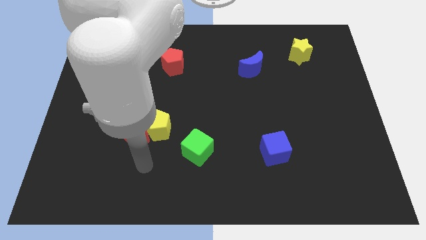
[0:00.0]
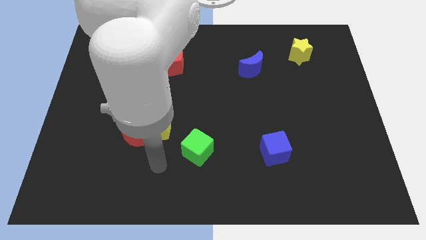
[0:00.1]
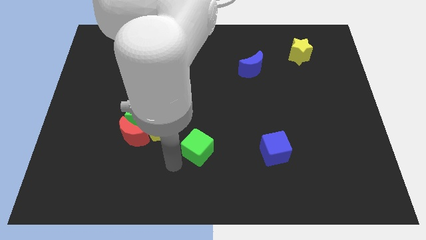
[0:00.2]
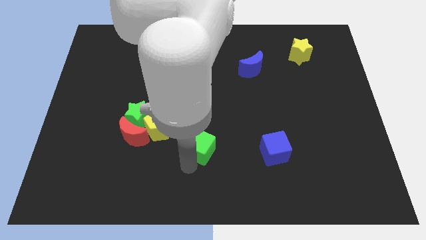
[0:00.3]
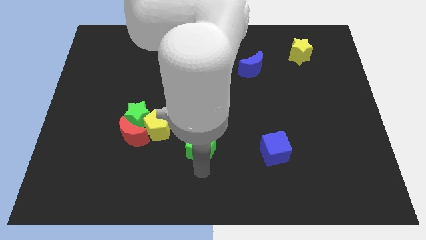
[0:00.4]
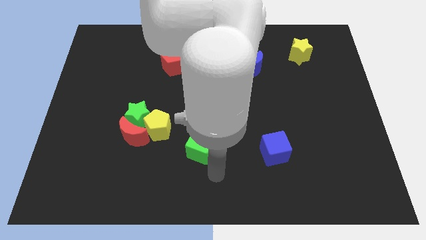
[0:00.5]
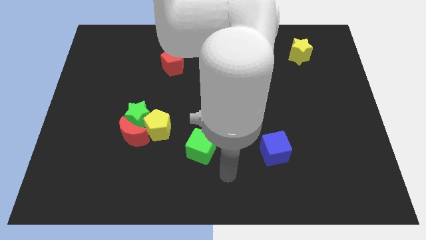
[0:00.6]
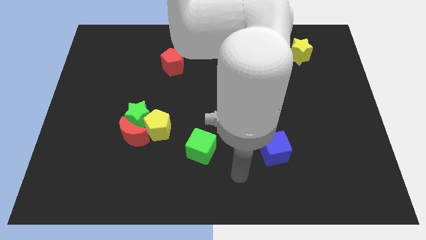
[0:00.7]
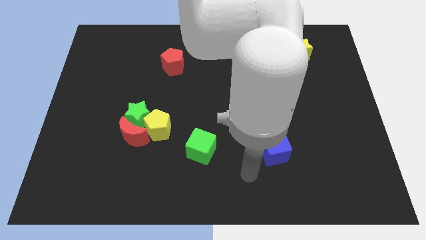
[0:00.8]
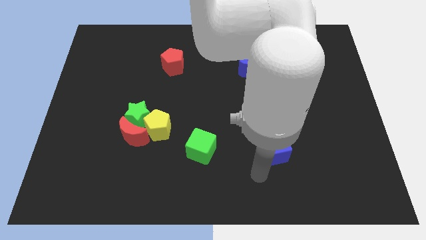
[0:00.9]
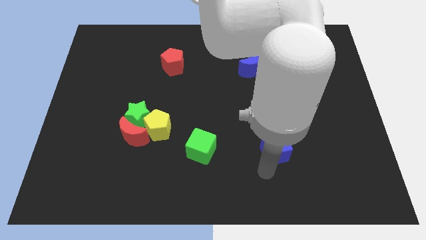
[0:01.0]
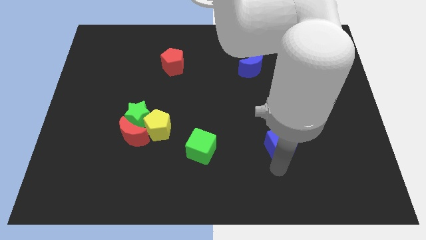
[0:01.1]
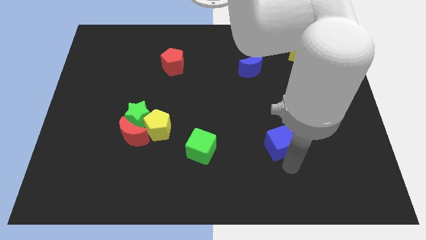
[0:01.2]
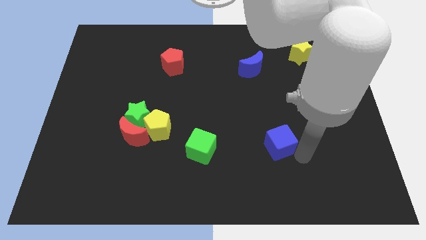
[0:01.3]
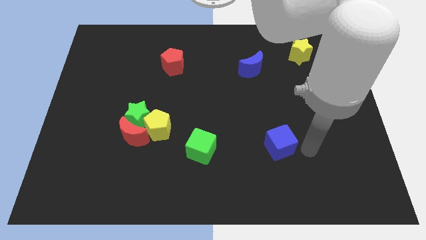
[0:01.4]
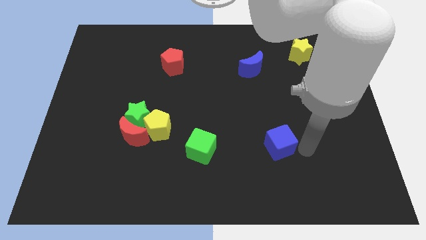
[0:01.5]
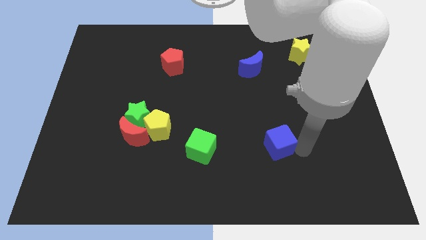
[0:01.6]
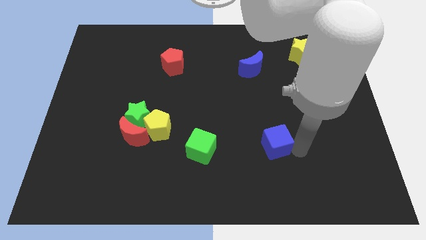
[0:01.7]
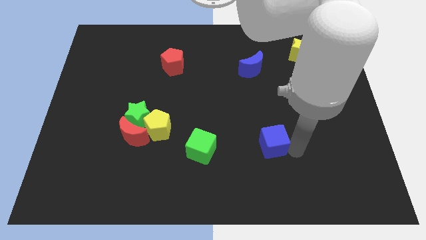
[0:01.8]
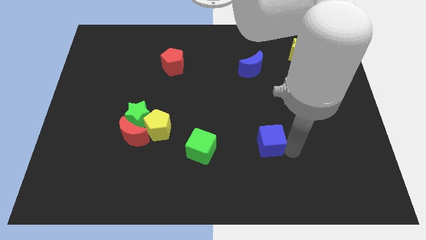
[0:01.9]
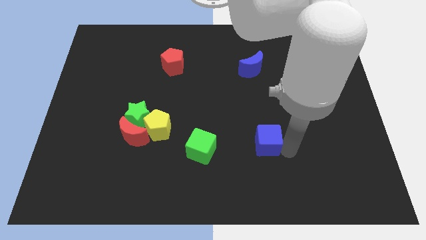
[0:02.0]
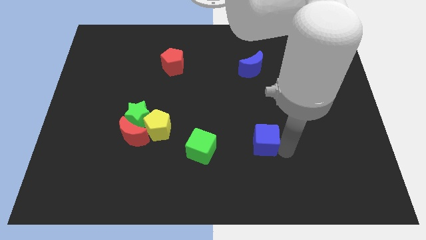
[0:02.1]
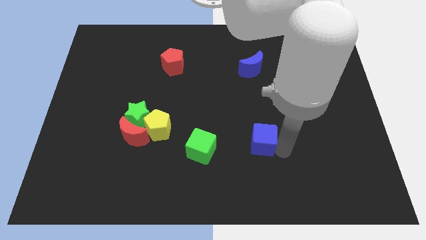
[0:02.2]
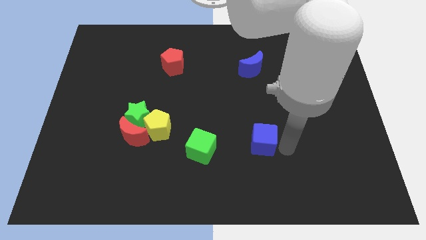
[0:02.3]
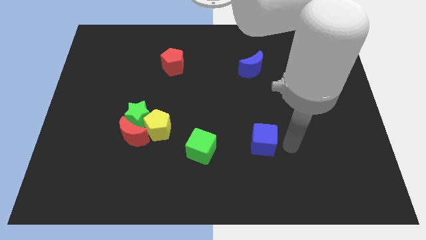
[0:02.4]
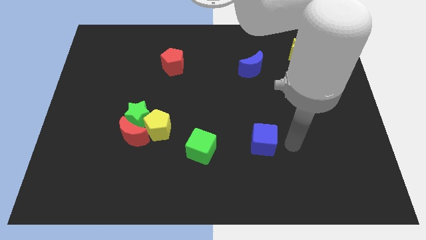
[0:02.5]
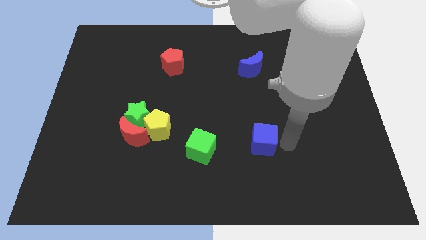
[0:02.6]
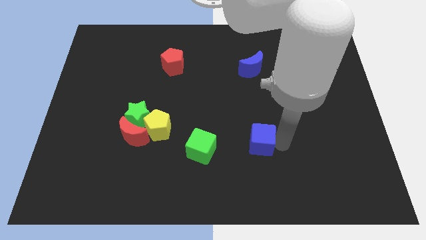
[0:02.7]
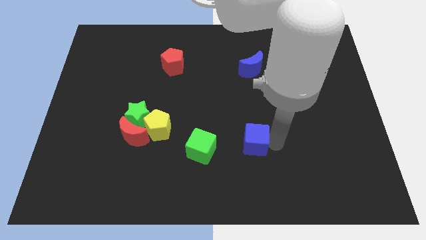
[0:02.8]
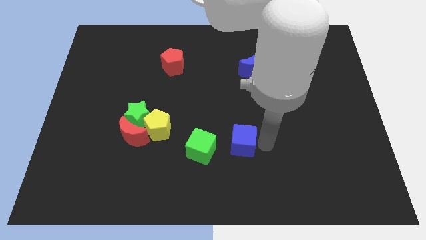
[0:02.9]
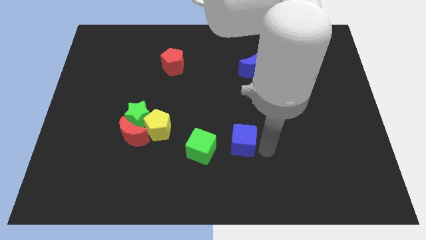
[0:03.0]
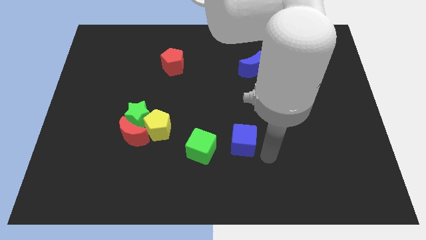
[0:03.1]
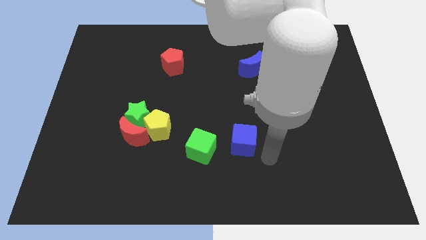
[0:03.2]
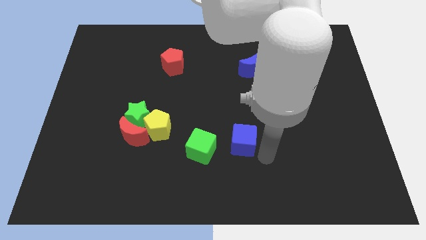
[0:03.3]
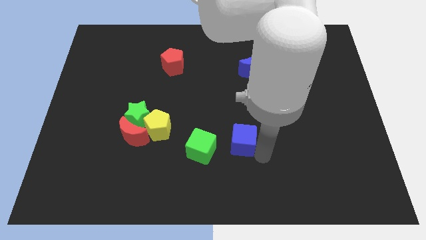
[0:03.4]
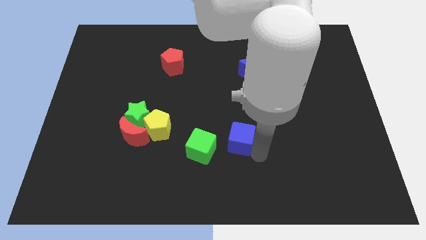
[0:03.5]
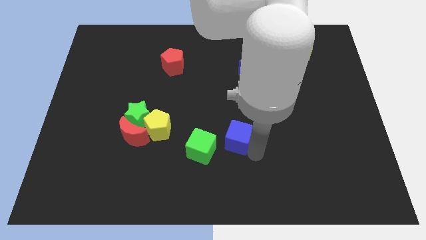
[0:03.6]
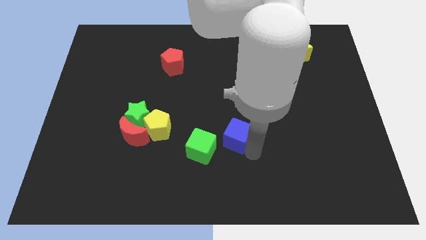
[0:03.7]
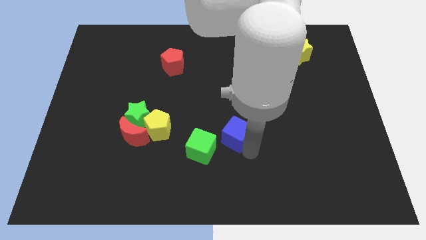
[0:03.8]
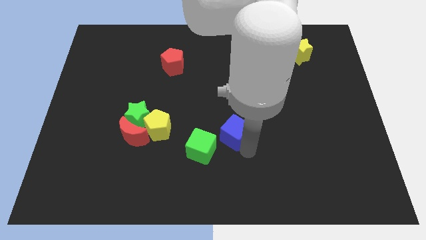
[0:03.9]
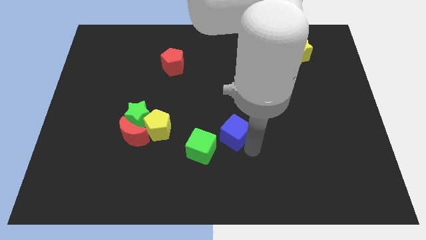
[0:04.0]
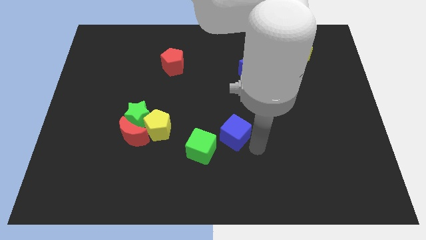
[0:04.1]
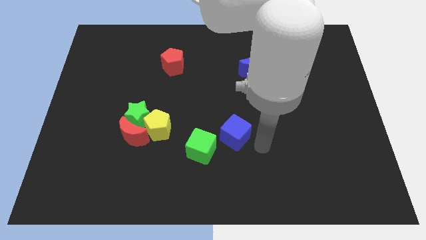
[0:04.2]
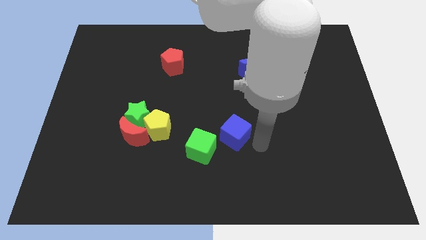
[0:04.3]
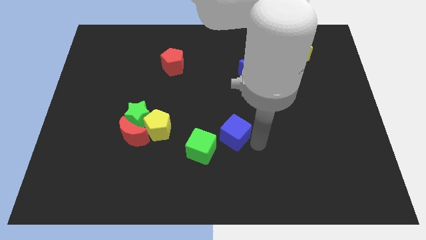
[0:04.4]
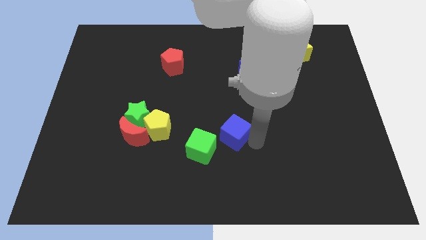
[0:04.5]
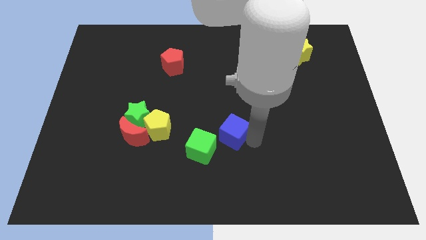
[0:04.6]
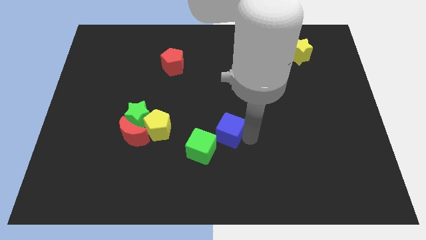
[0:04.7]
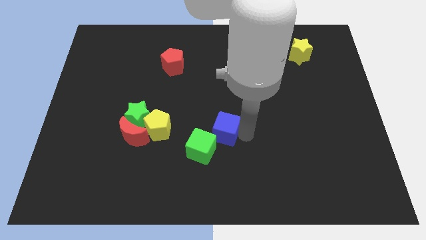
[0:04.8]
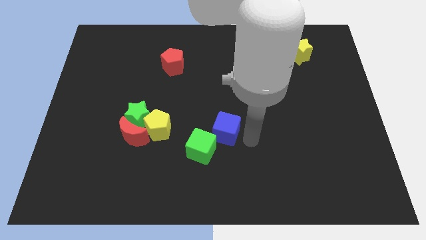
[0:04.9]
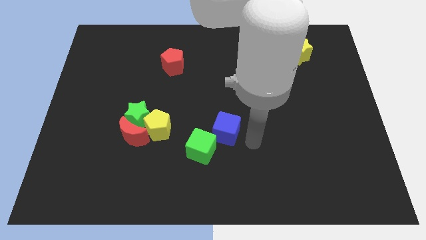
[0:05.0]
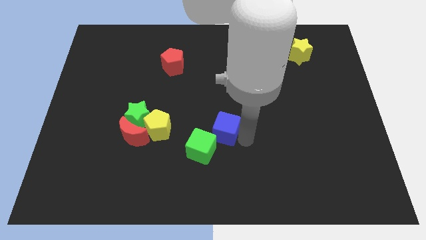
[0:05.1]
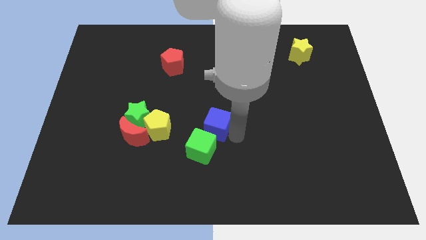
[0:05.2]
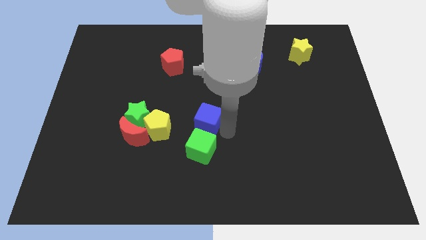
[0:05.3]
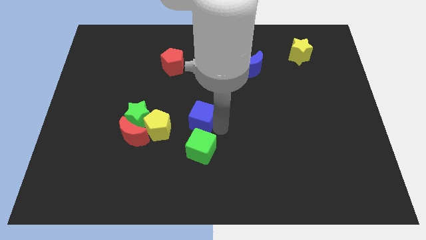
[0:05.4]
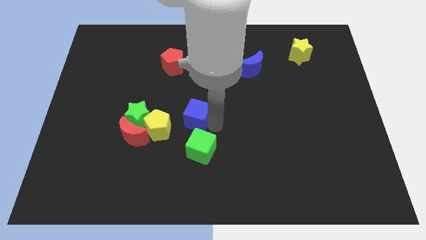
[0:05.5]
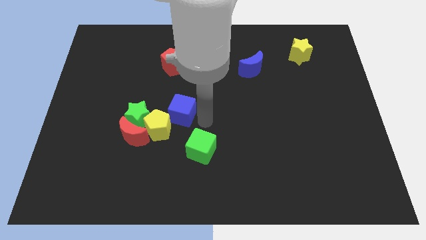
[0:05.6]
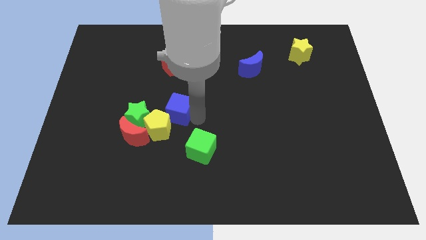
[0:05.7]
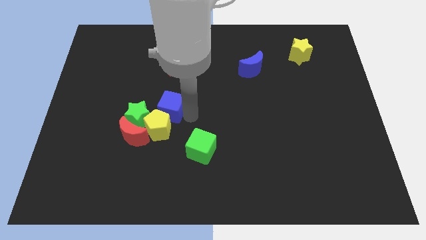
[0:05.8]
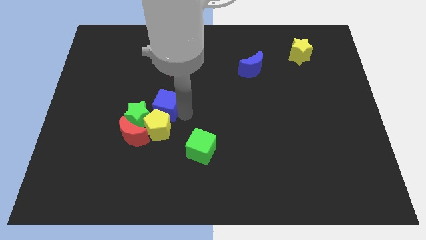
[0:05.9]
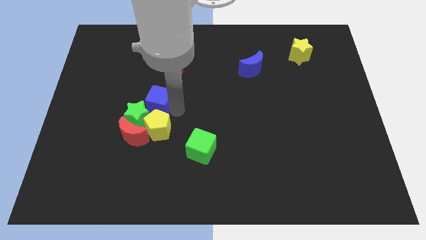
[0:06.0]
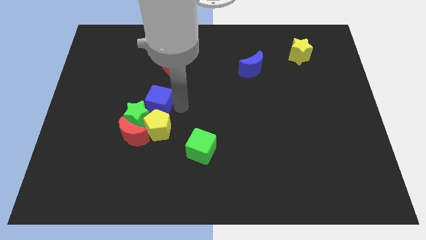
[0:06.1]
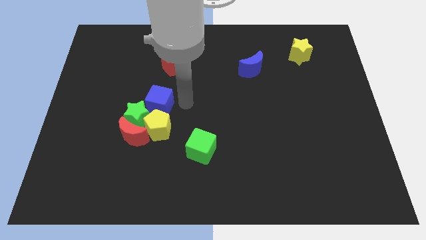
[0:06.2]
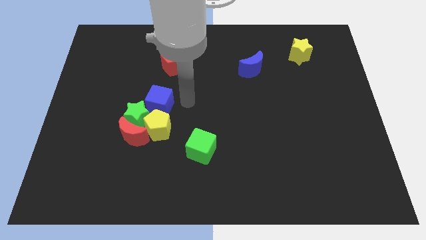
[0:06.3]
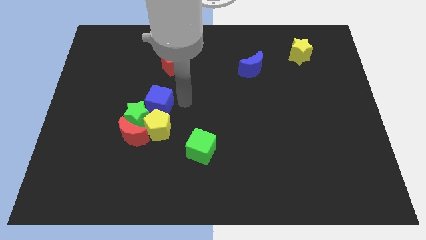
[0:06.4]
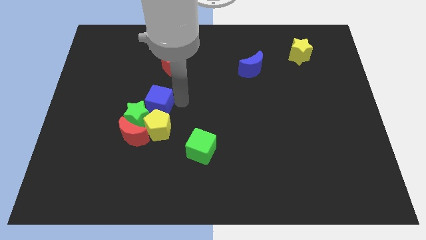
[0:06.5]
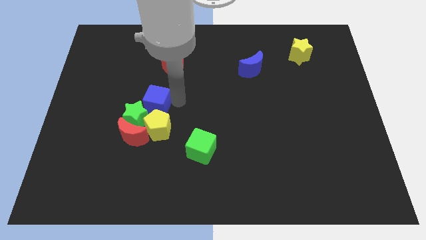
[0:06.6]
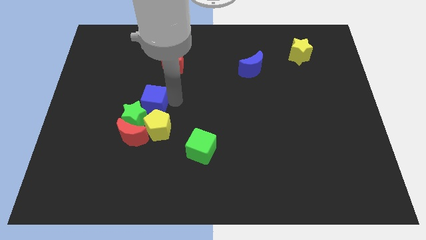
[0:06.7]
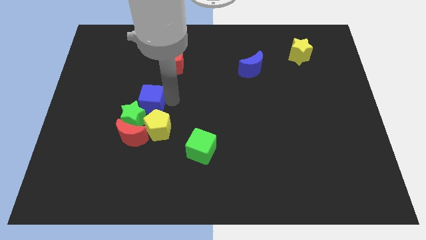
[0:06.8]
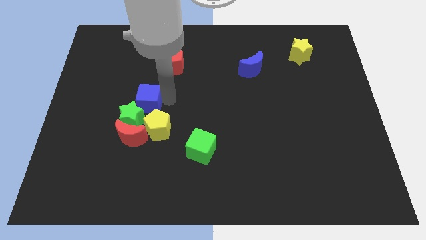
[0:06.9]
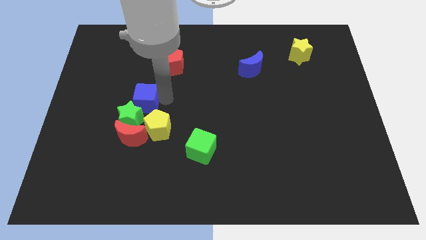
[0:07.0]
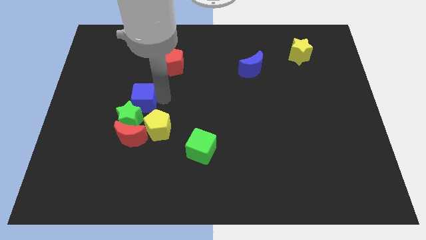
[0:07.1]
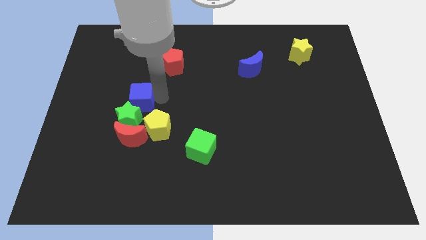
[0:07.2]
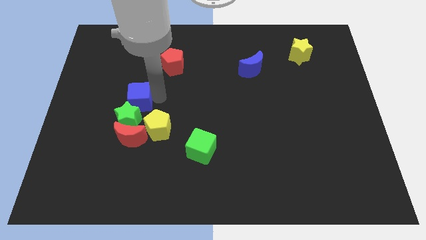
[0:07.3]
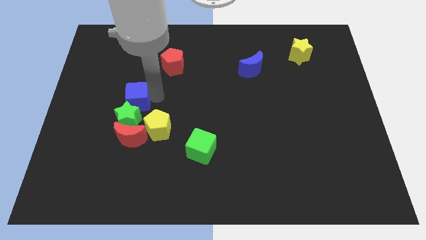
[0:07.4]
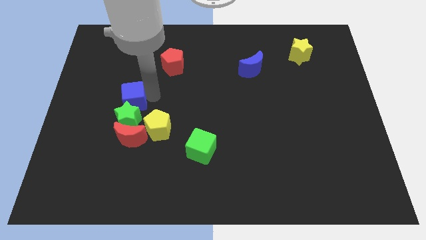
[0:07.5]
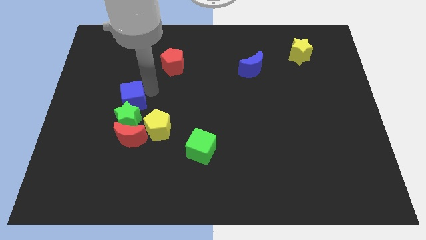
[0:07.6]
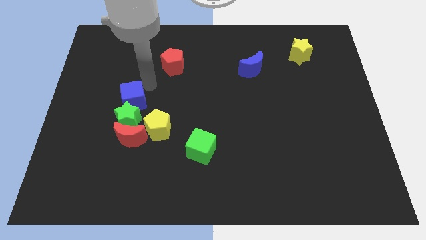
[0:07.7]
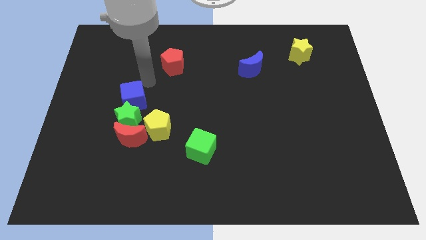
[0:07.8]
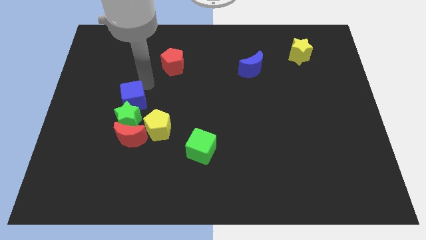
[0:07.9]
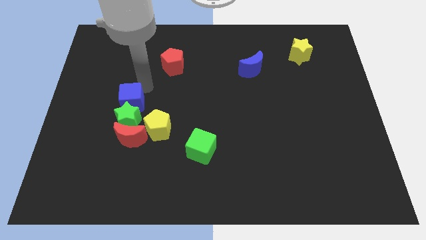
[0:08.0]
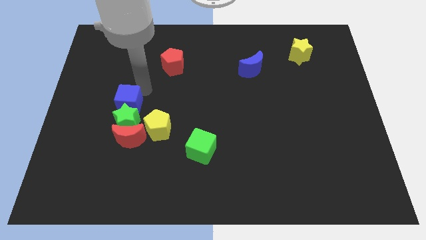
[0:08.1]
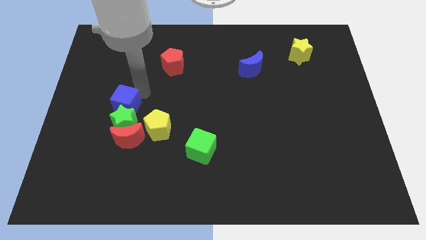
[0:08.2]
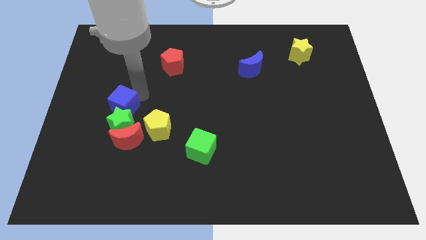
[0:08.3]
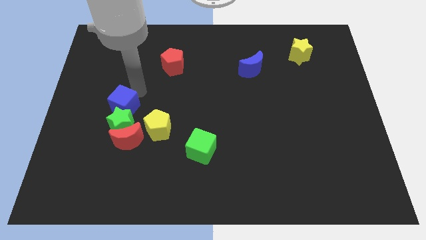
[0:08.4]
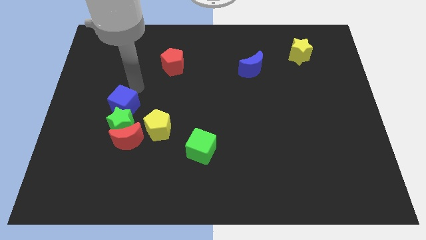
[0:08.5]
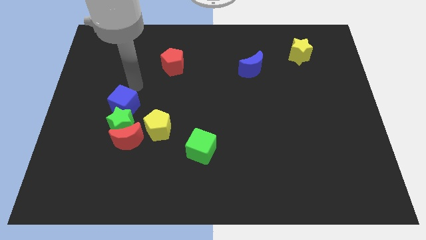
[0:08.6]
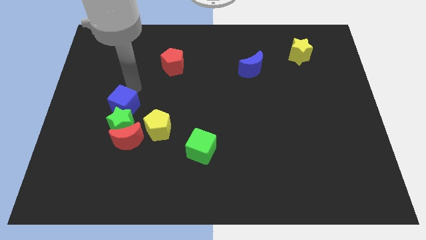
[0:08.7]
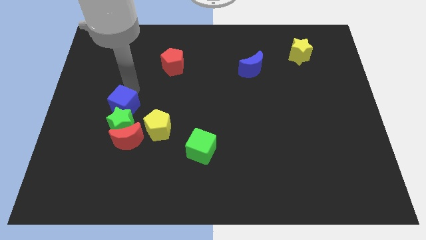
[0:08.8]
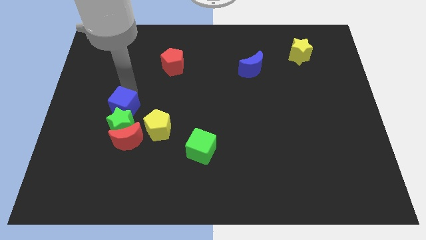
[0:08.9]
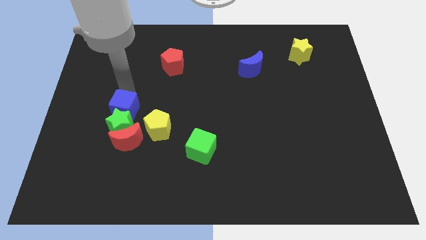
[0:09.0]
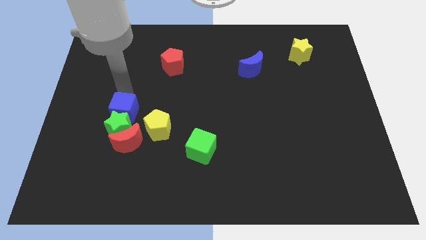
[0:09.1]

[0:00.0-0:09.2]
push the blue cube to the left of the yellow pentagon
